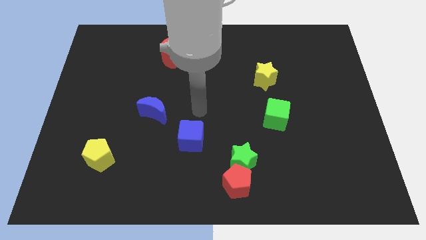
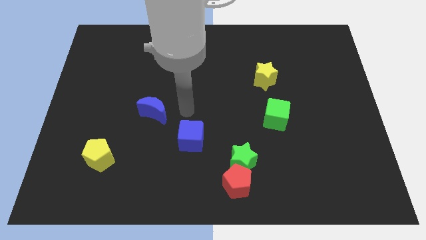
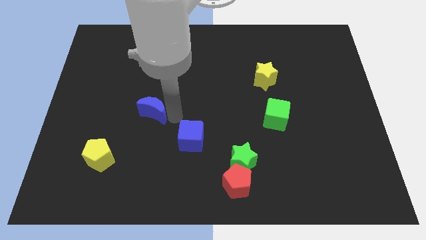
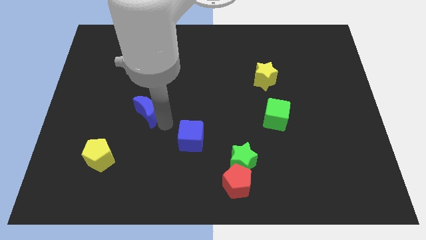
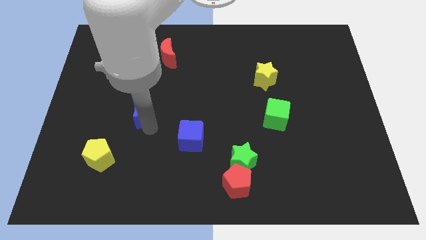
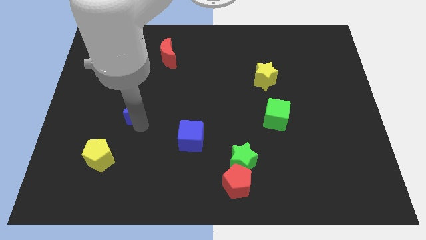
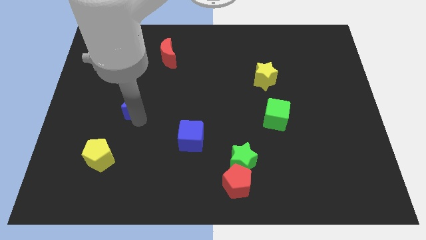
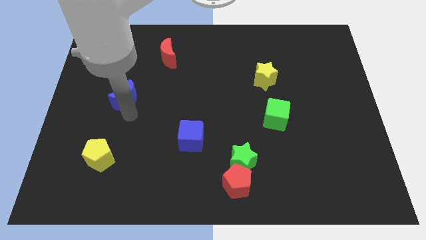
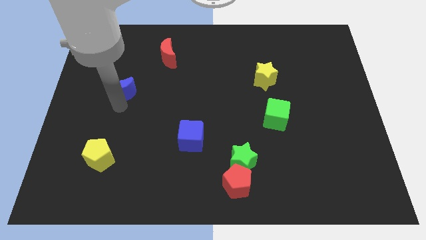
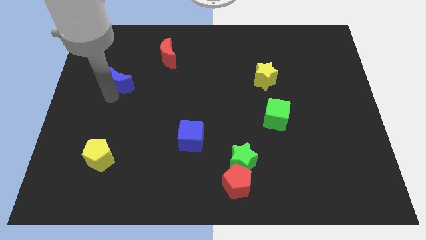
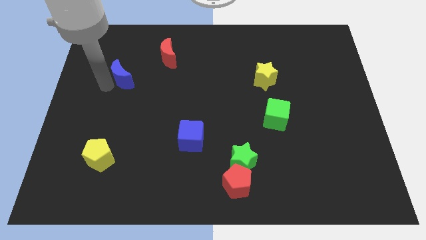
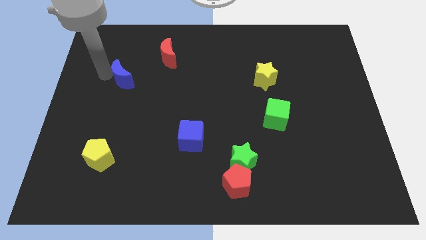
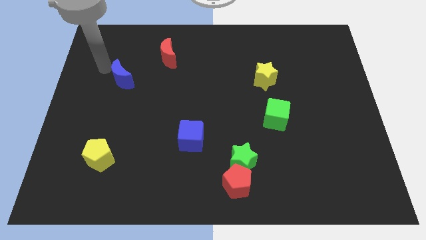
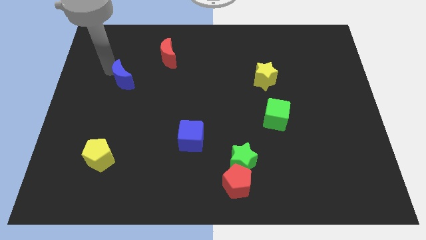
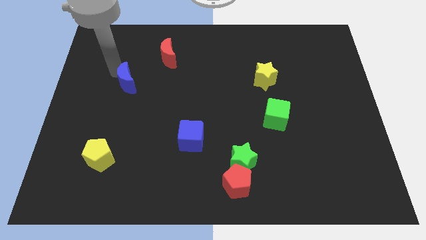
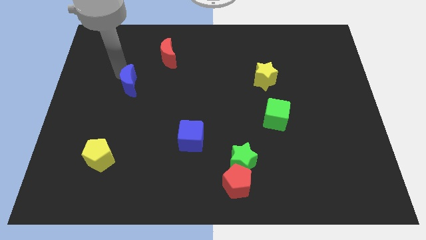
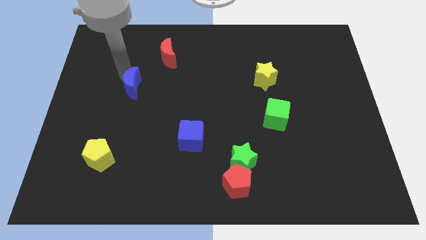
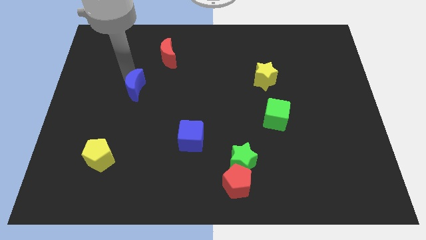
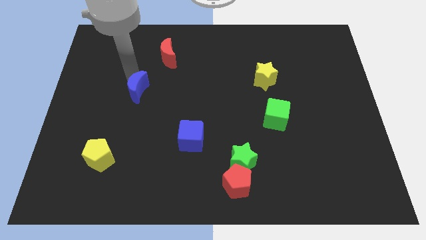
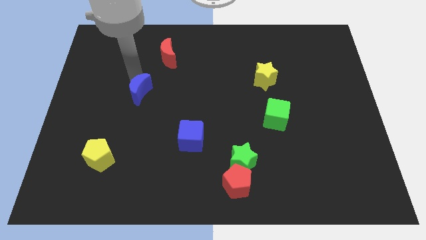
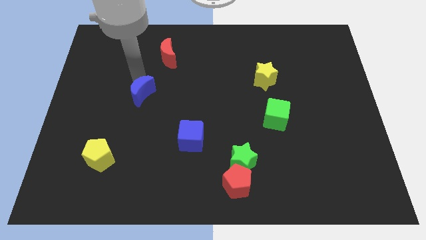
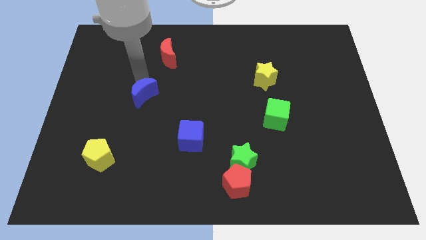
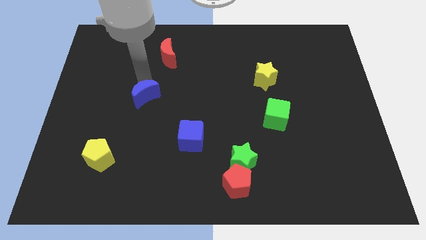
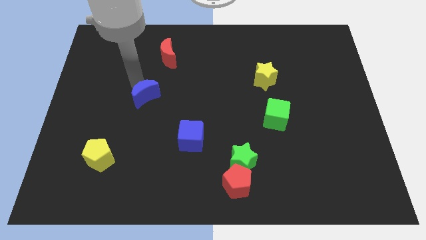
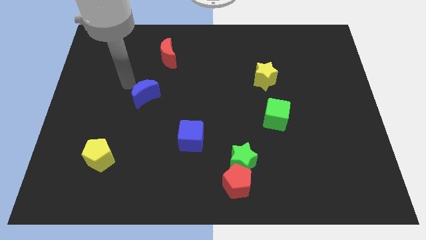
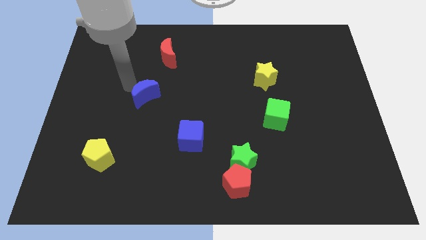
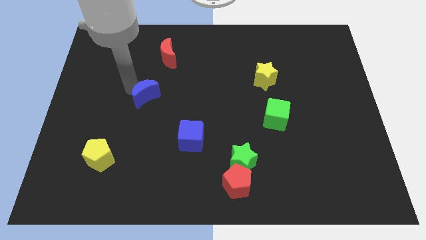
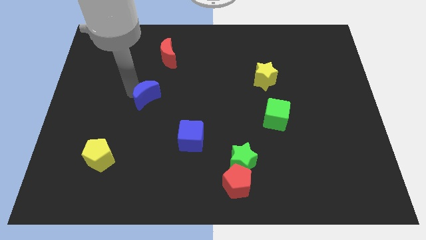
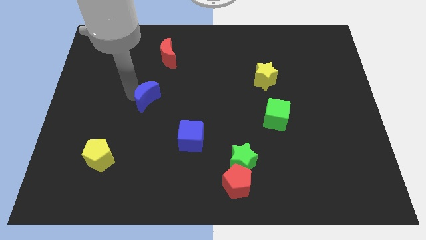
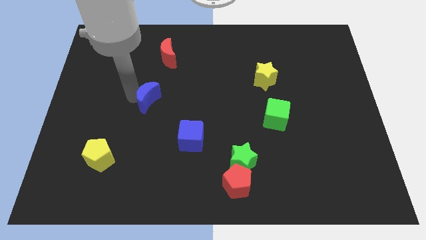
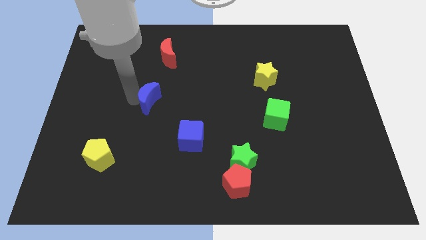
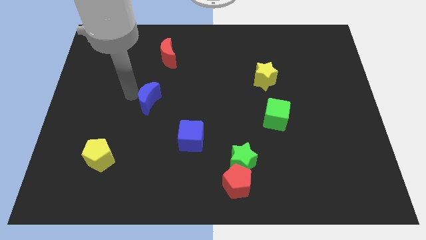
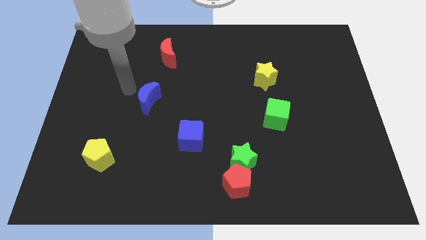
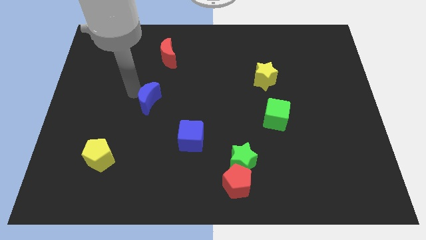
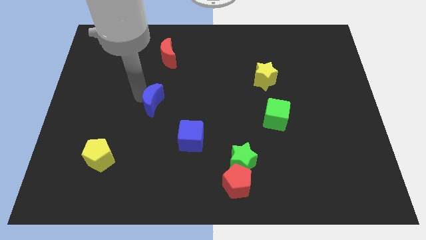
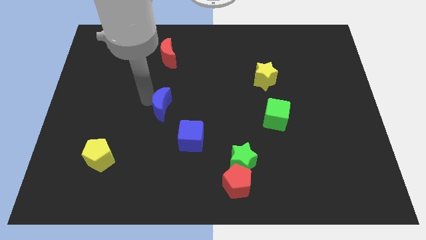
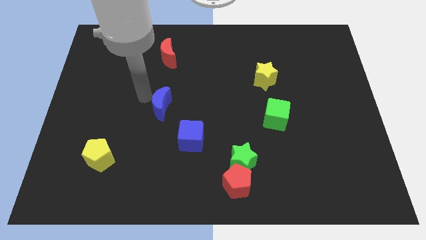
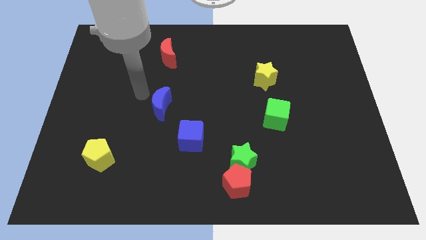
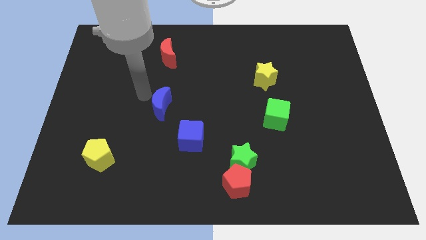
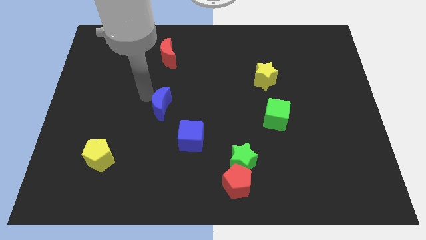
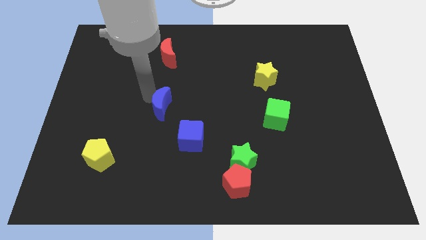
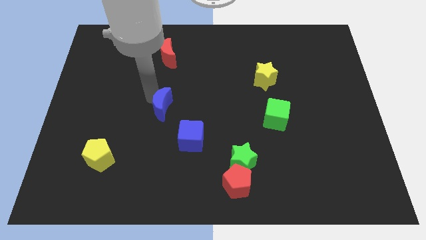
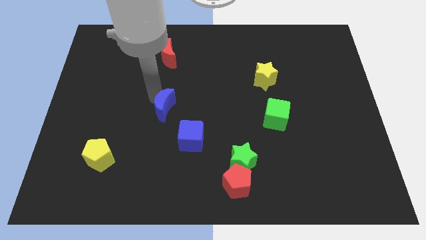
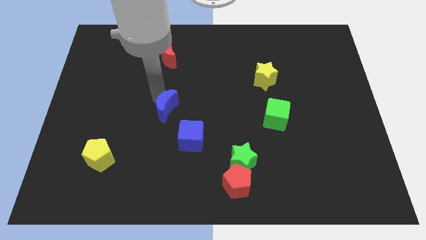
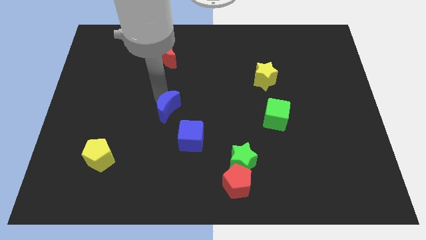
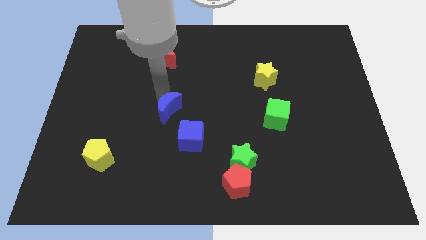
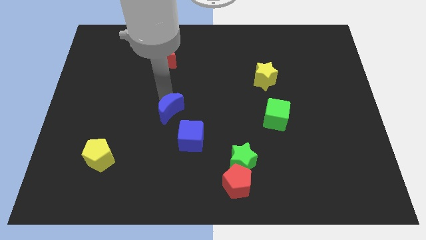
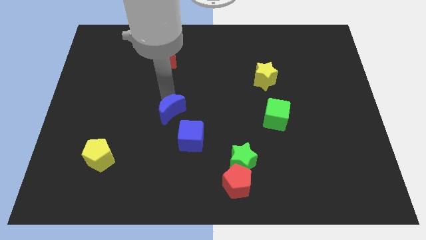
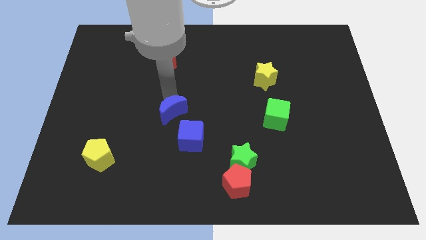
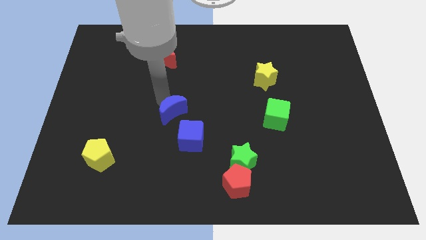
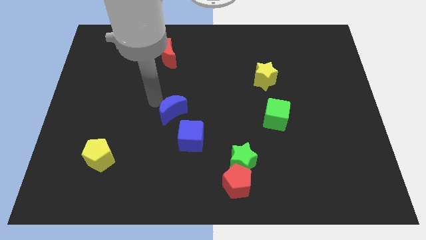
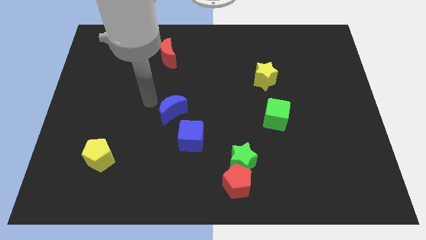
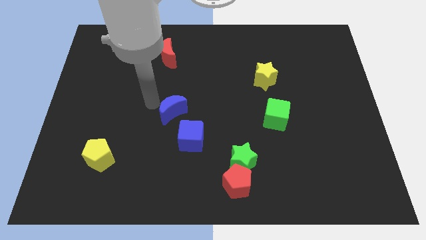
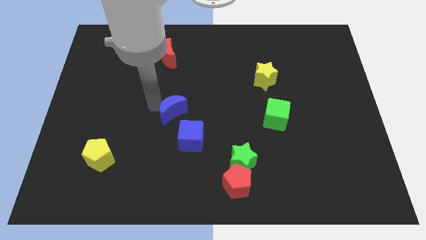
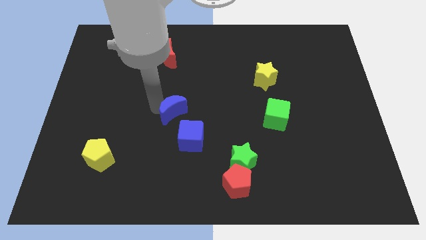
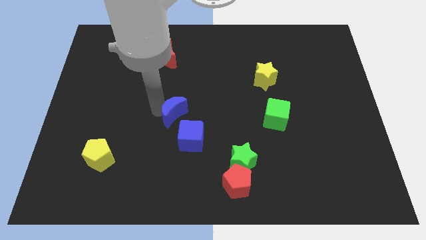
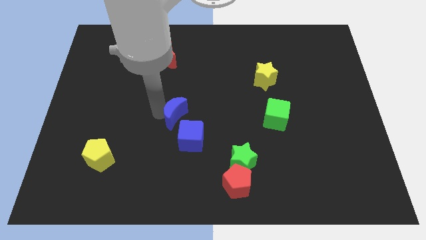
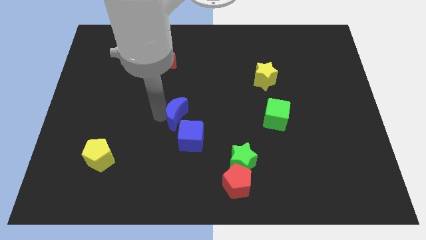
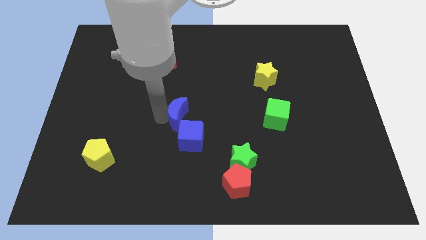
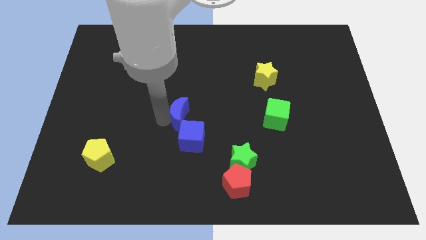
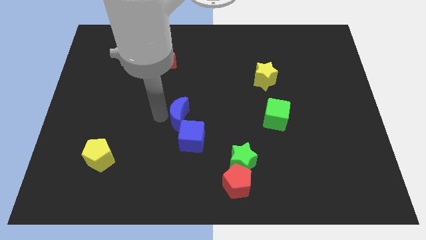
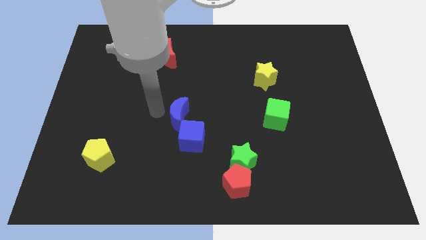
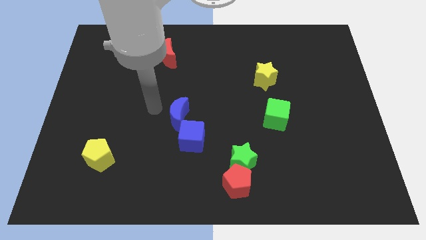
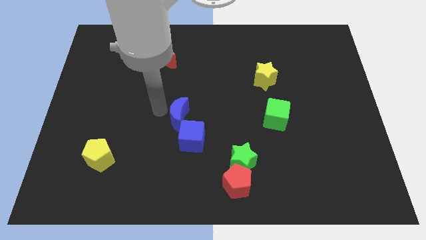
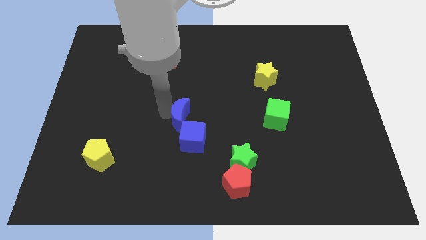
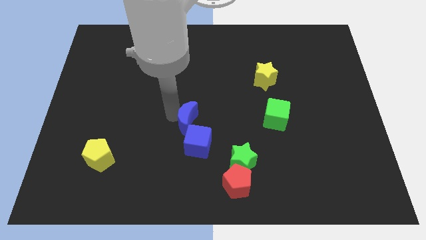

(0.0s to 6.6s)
slightly move the blue moon diagonally down and right

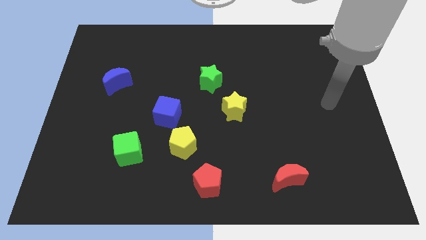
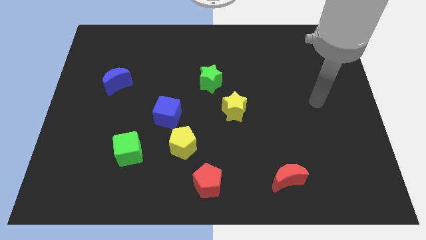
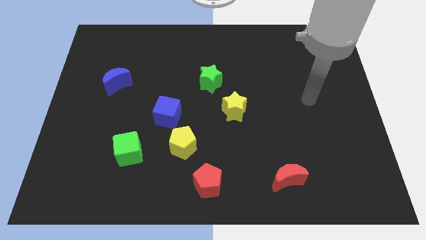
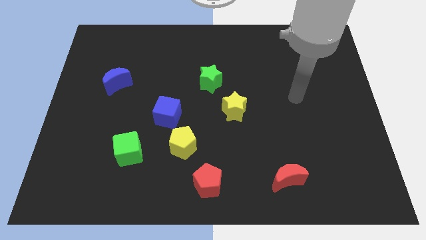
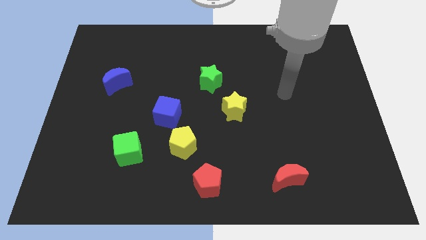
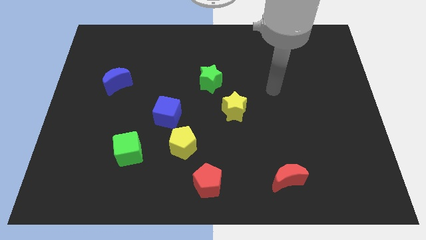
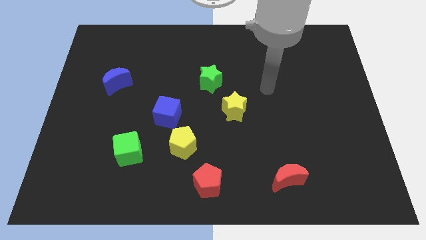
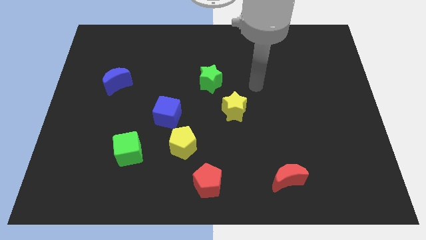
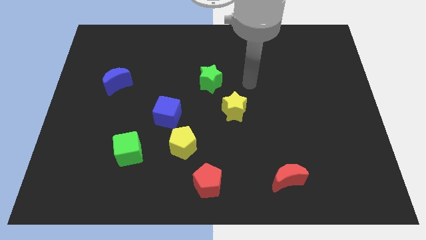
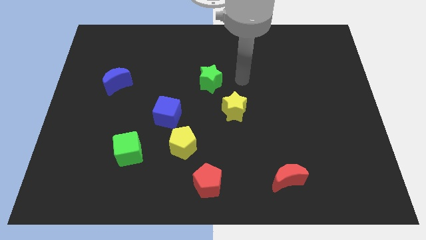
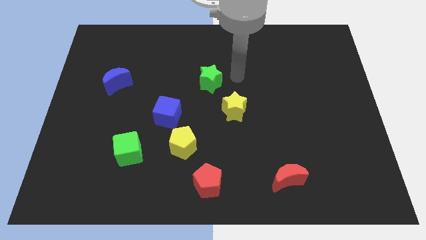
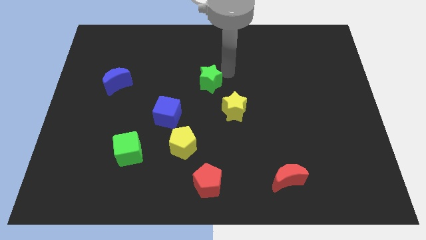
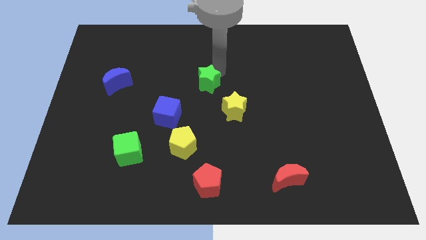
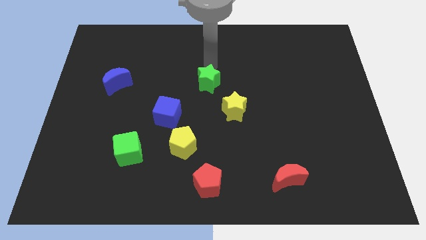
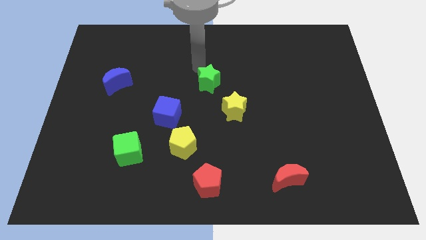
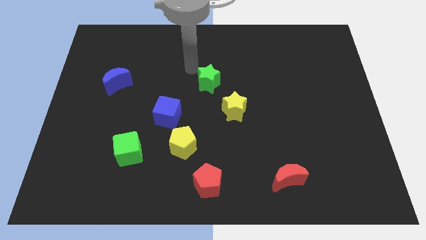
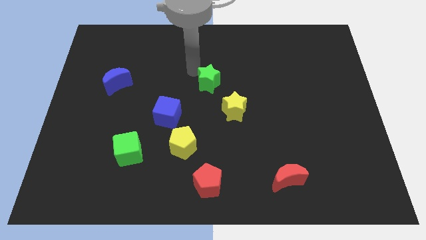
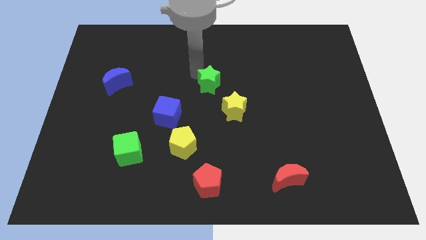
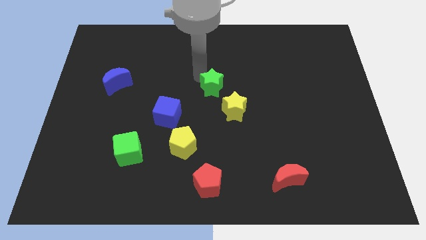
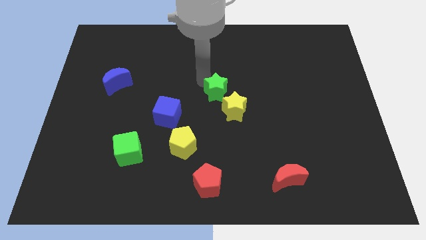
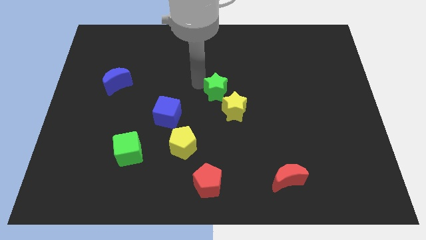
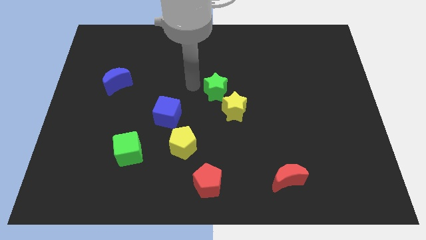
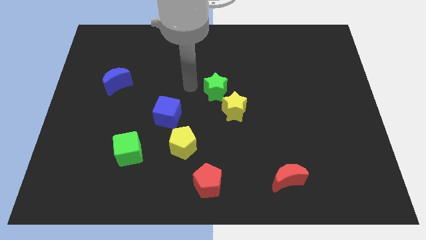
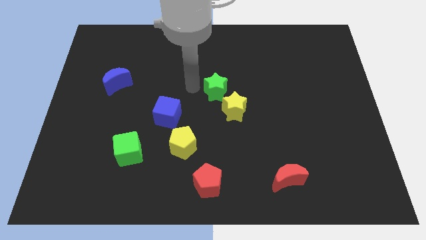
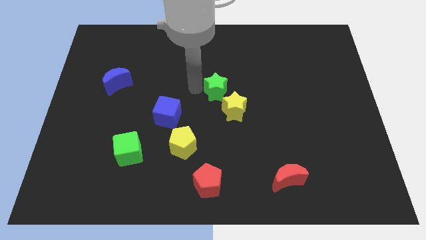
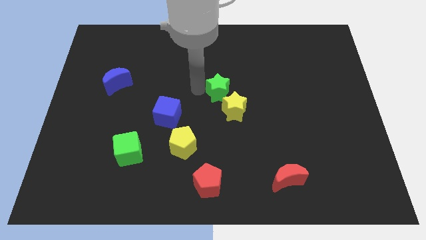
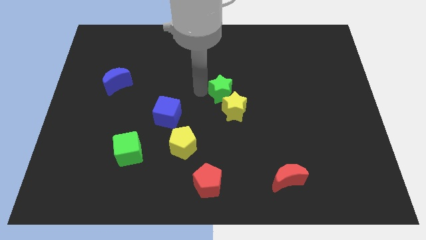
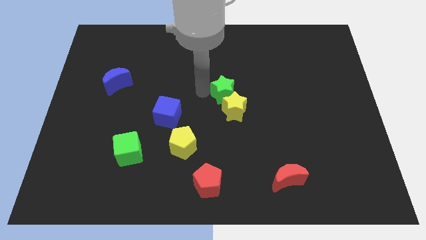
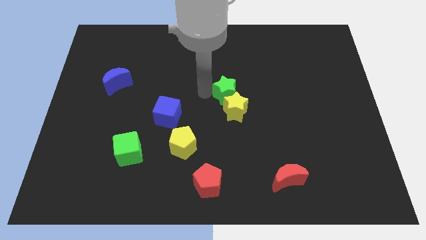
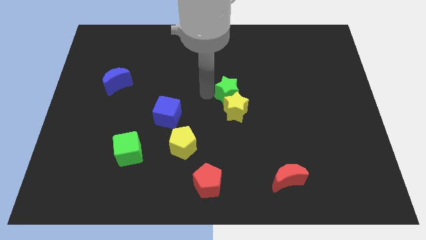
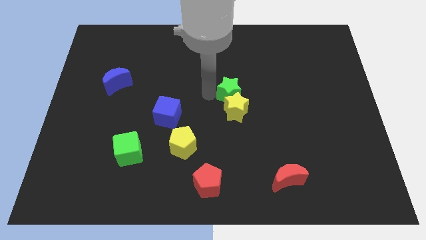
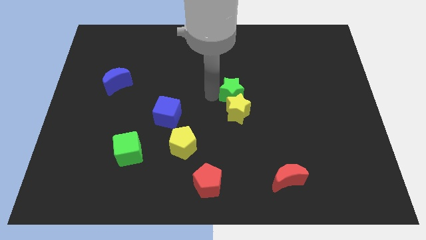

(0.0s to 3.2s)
slightly move the green star downwards and to the right
